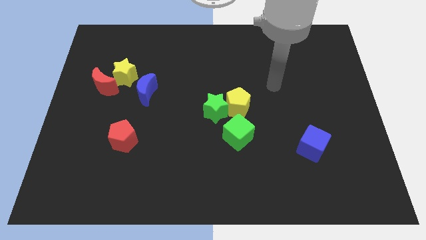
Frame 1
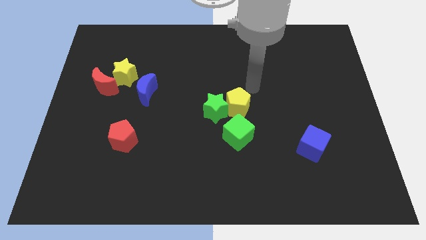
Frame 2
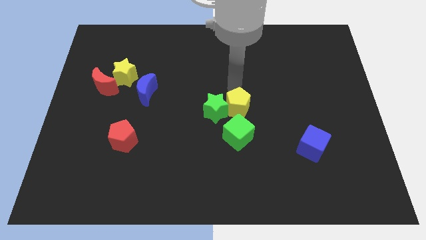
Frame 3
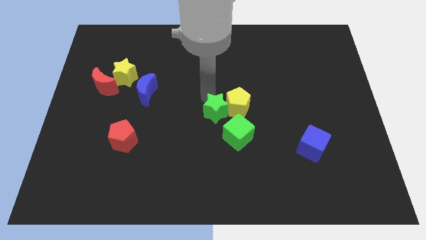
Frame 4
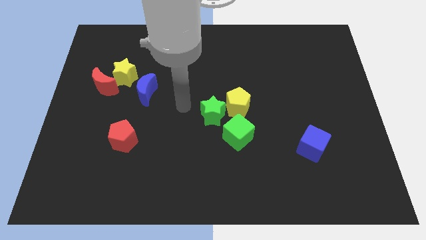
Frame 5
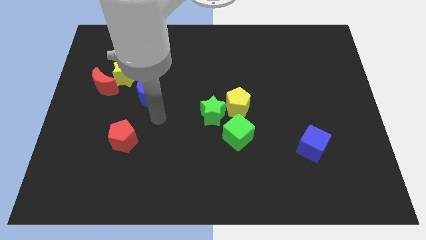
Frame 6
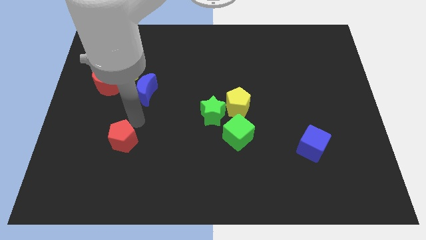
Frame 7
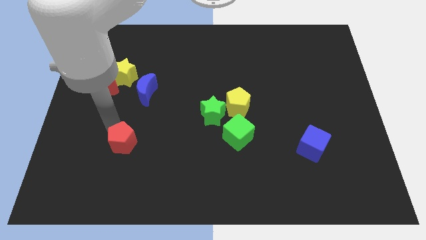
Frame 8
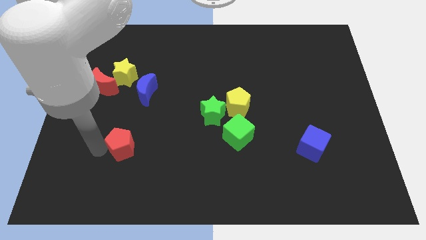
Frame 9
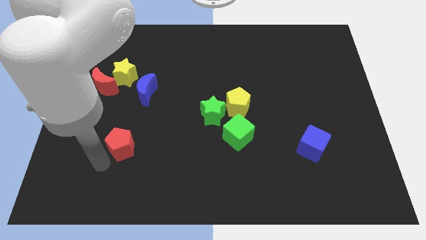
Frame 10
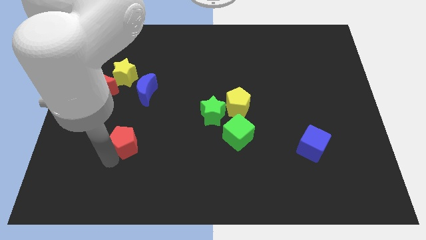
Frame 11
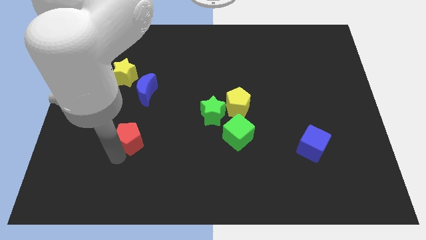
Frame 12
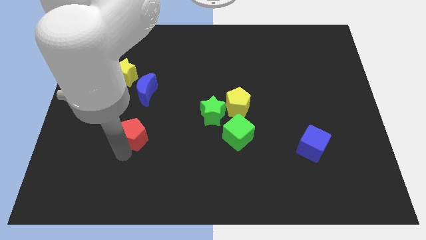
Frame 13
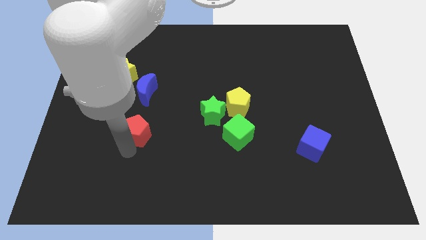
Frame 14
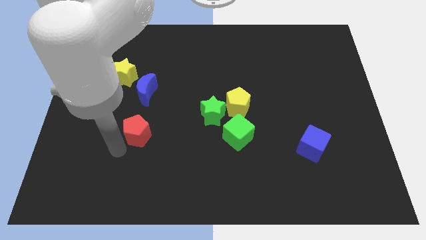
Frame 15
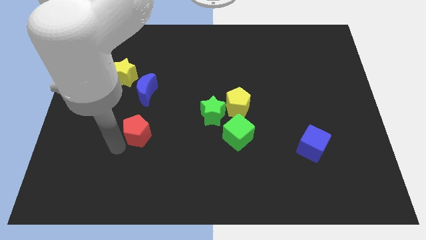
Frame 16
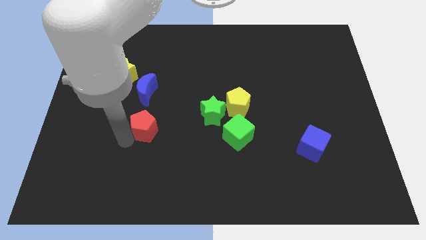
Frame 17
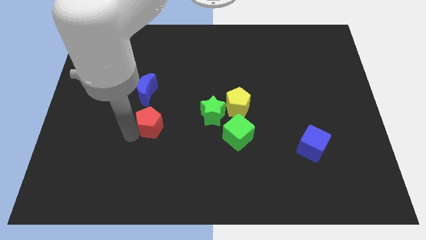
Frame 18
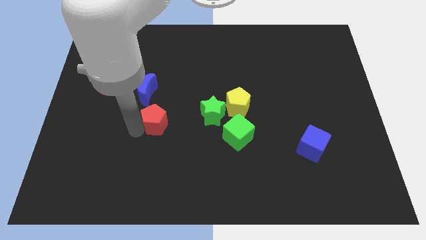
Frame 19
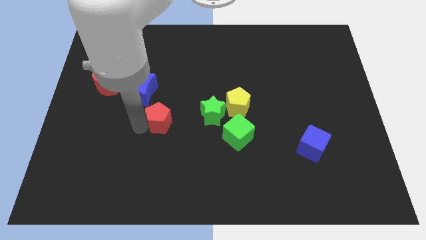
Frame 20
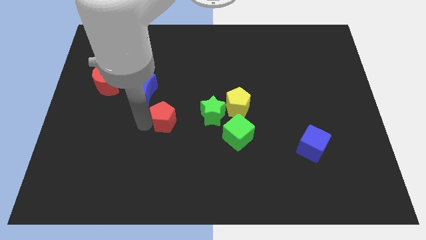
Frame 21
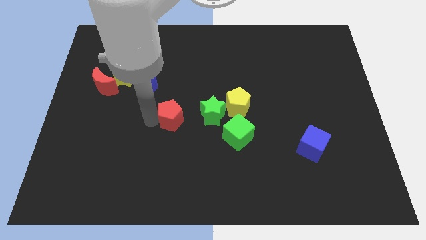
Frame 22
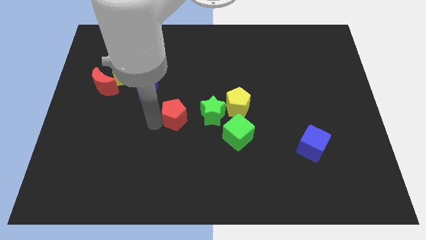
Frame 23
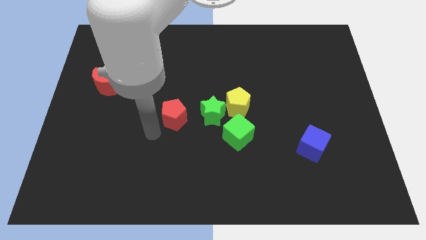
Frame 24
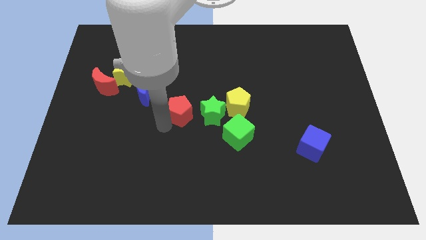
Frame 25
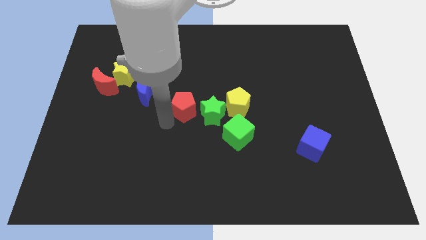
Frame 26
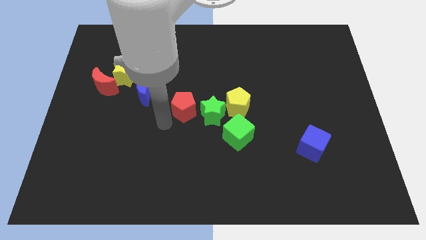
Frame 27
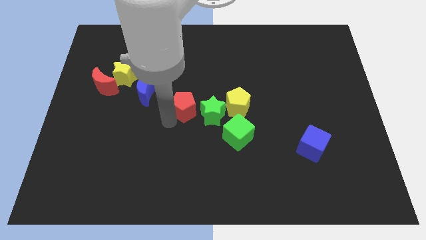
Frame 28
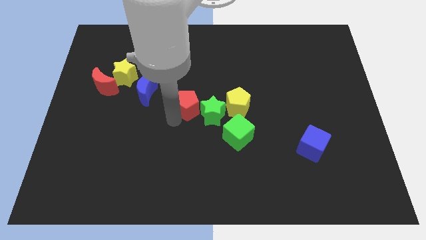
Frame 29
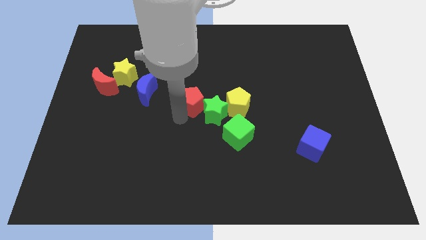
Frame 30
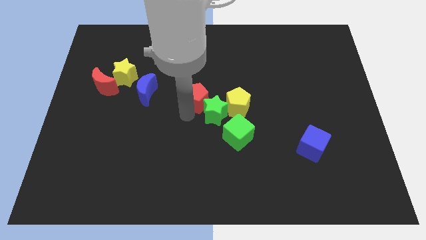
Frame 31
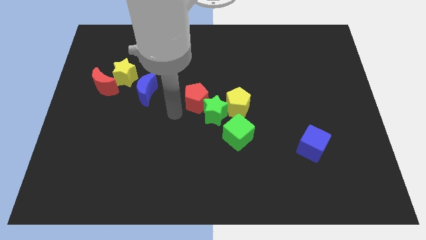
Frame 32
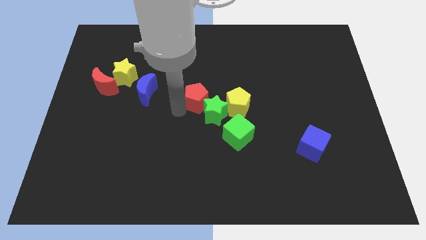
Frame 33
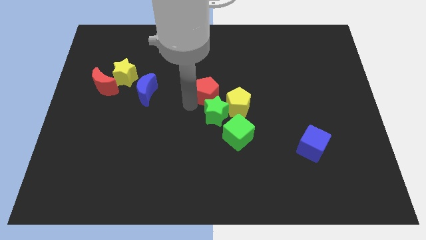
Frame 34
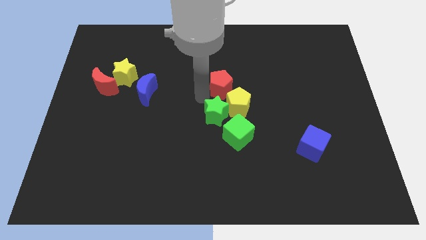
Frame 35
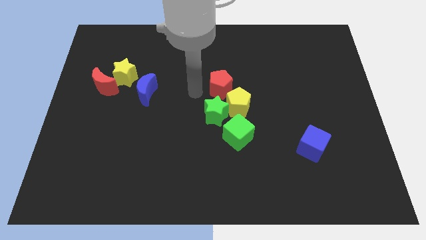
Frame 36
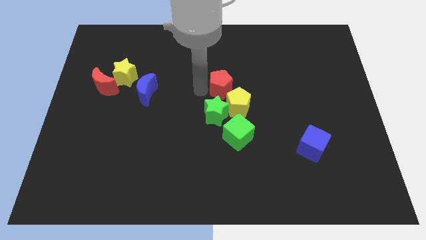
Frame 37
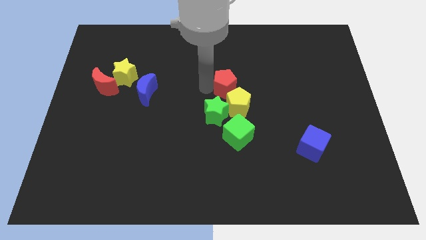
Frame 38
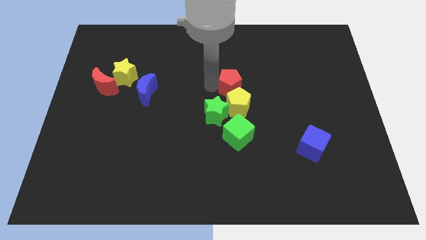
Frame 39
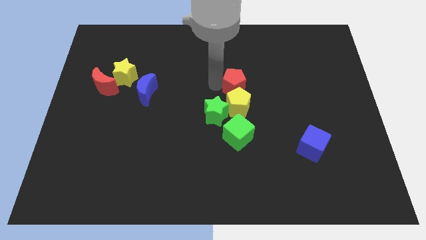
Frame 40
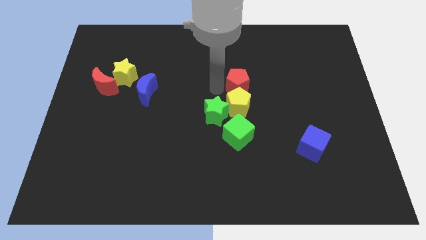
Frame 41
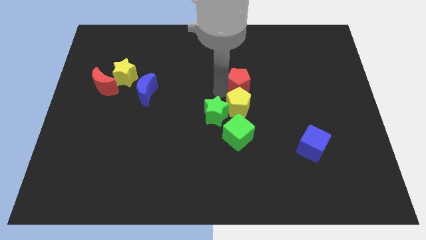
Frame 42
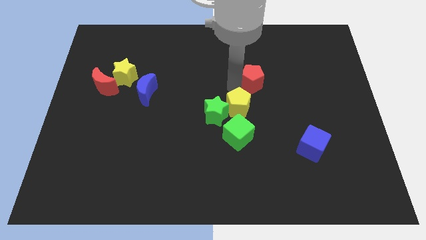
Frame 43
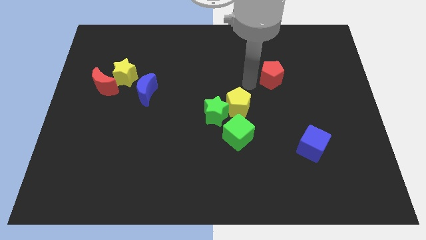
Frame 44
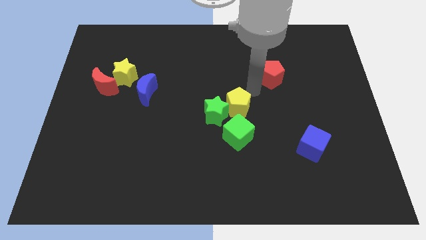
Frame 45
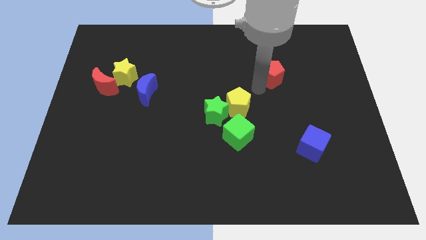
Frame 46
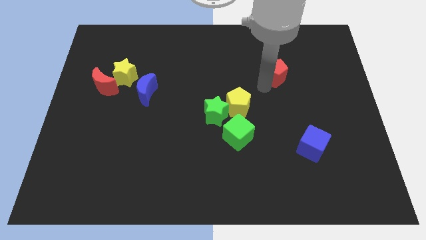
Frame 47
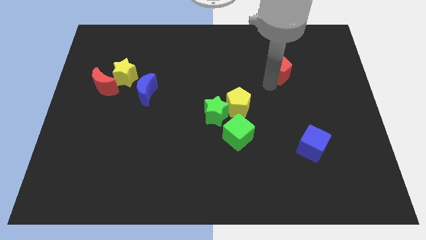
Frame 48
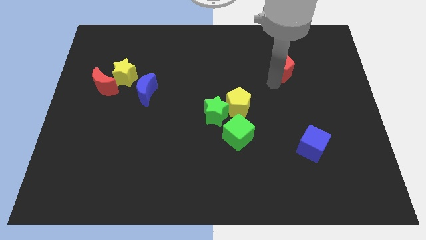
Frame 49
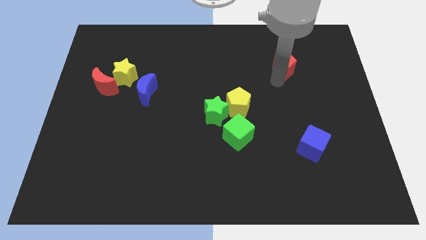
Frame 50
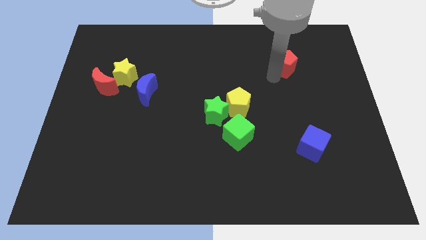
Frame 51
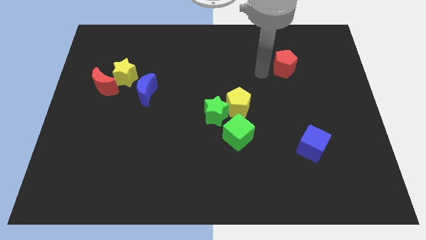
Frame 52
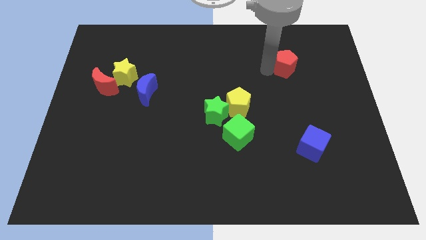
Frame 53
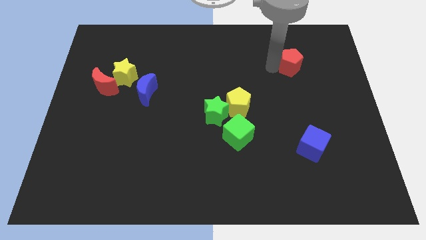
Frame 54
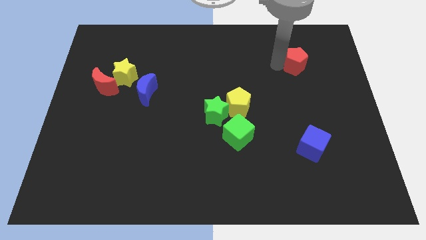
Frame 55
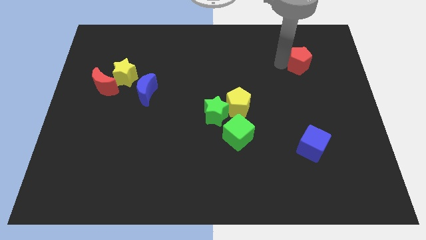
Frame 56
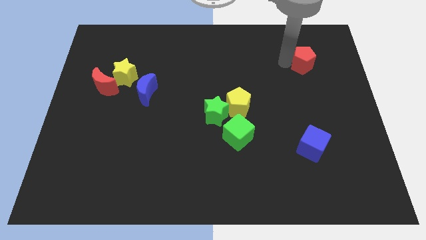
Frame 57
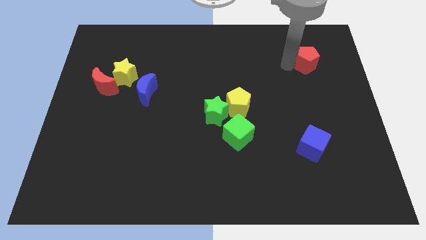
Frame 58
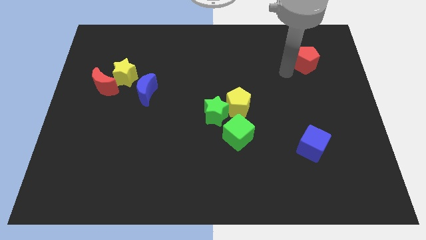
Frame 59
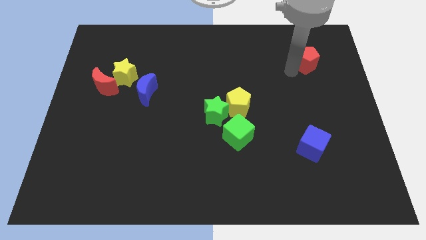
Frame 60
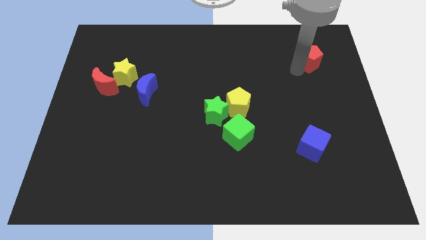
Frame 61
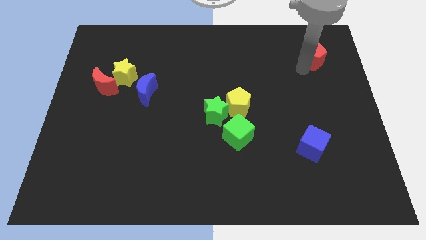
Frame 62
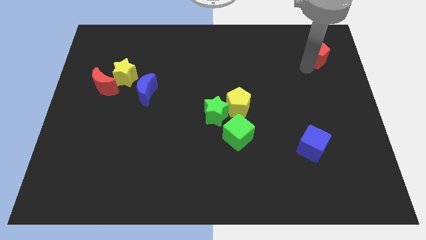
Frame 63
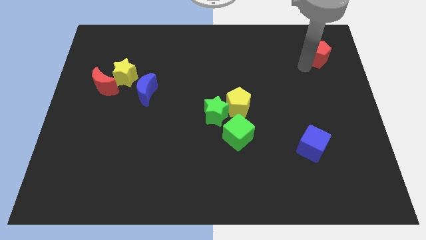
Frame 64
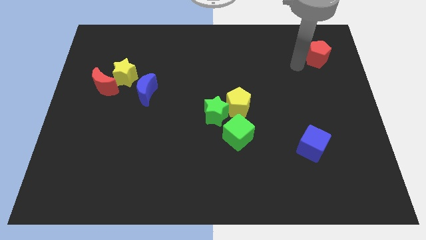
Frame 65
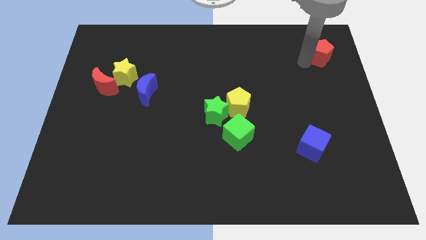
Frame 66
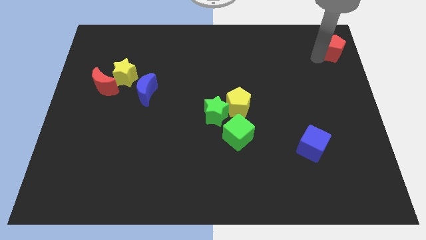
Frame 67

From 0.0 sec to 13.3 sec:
put the red pentagon to the upper right corner
